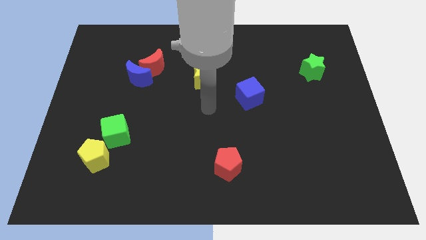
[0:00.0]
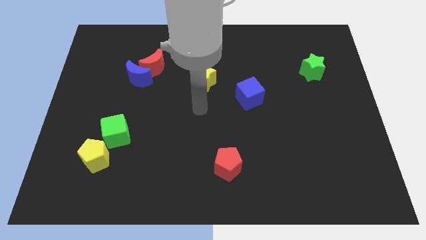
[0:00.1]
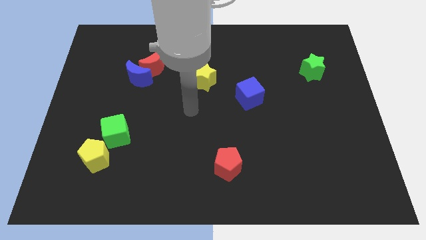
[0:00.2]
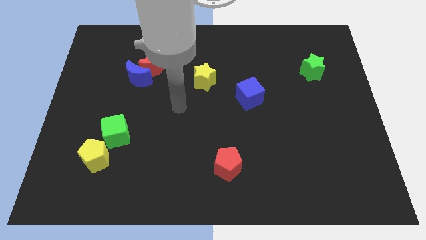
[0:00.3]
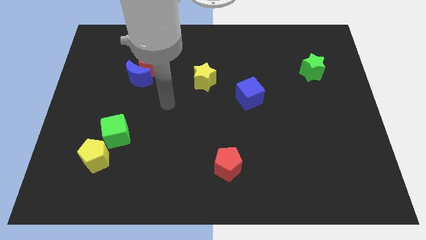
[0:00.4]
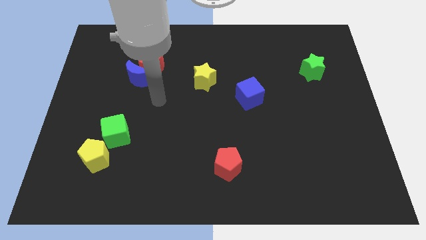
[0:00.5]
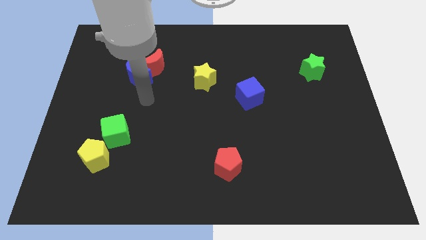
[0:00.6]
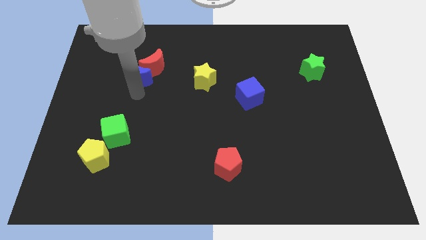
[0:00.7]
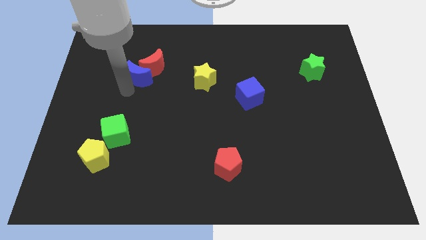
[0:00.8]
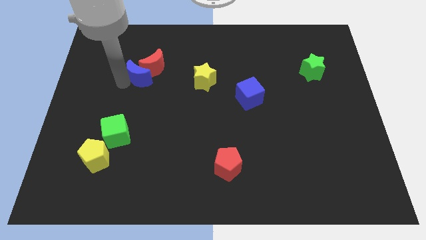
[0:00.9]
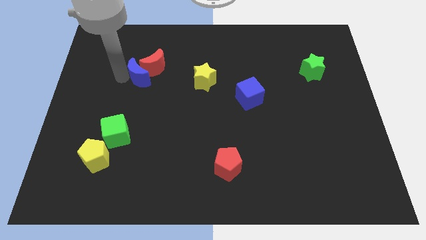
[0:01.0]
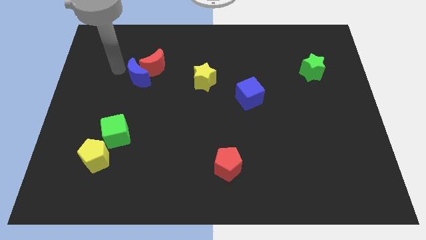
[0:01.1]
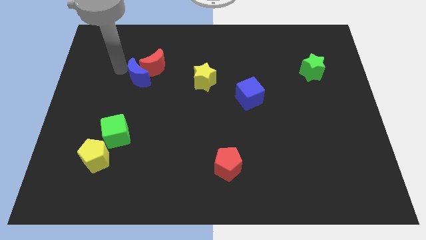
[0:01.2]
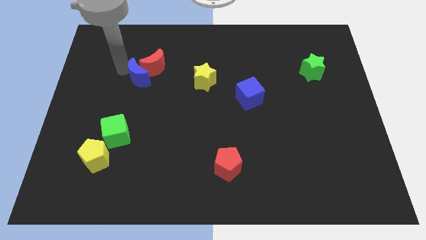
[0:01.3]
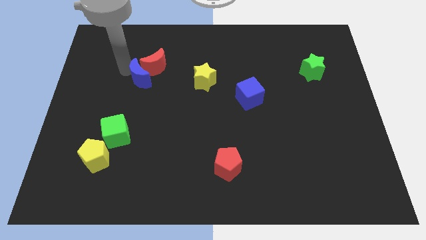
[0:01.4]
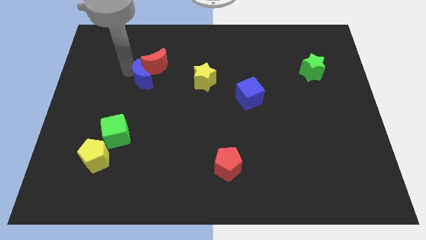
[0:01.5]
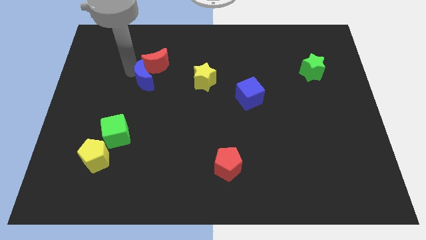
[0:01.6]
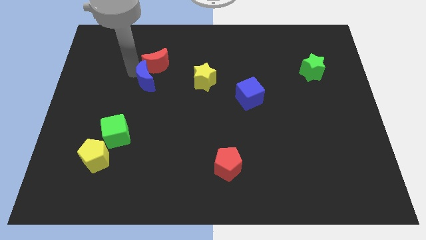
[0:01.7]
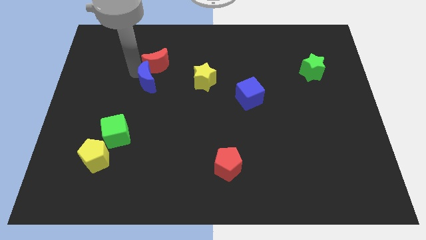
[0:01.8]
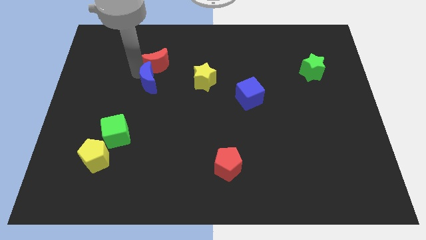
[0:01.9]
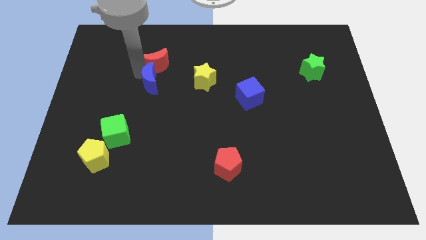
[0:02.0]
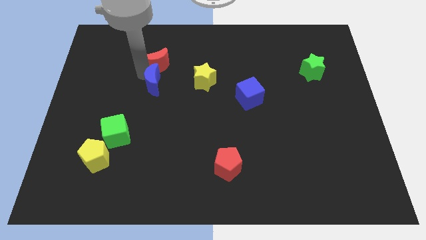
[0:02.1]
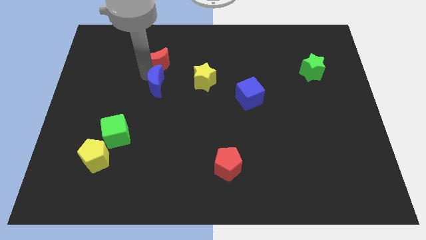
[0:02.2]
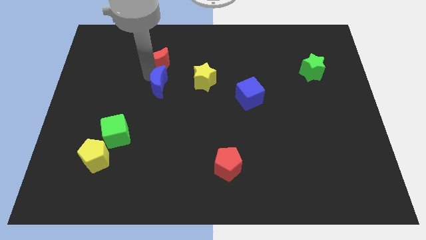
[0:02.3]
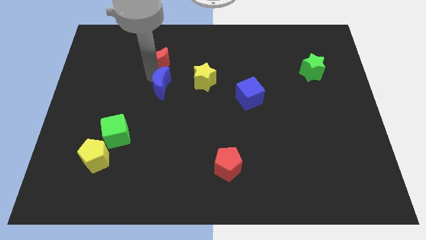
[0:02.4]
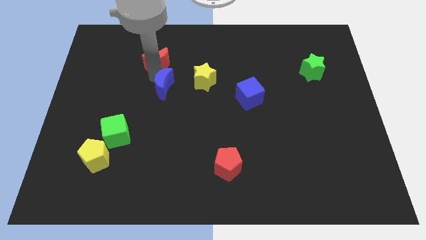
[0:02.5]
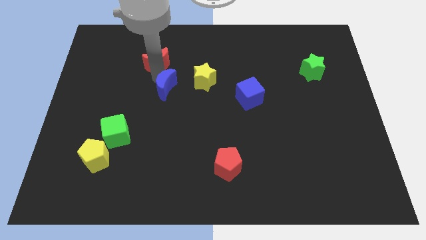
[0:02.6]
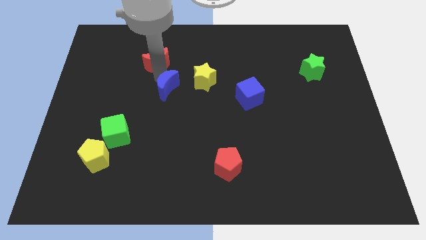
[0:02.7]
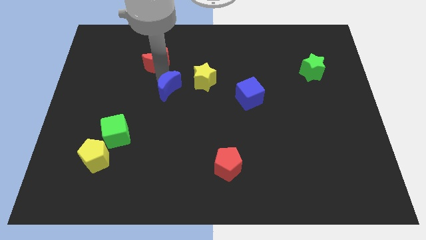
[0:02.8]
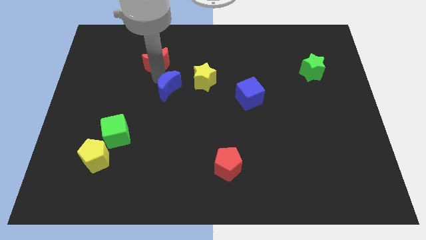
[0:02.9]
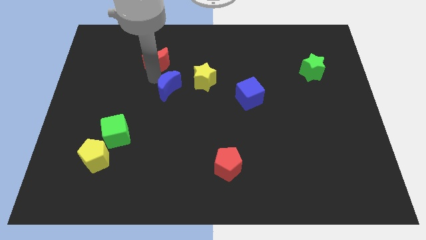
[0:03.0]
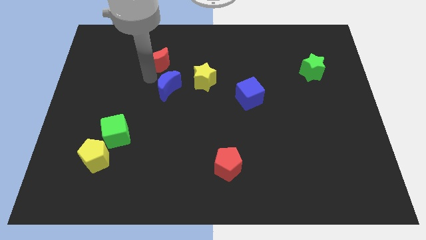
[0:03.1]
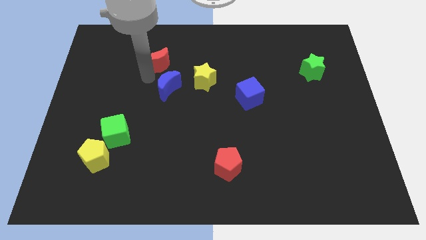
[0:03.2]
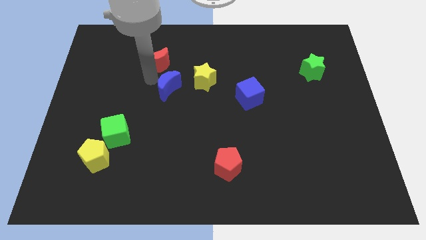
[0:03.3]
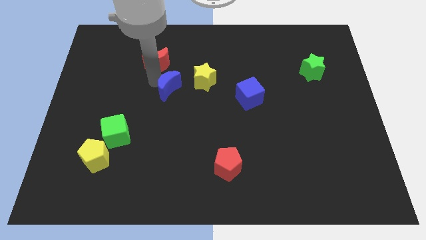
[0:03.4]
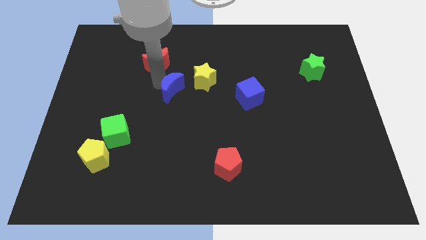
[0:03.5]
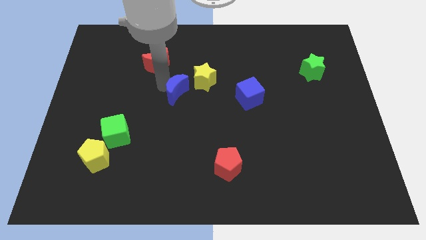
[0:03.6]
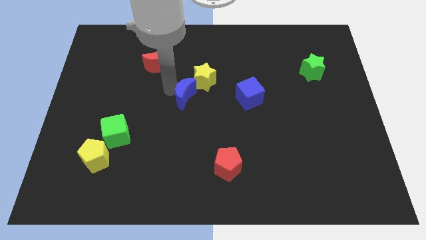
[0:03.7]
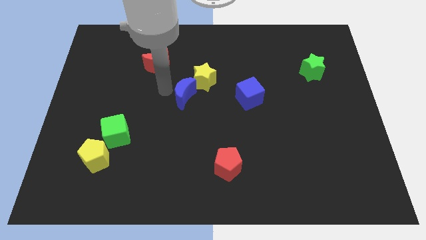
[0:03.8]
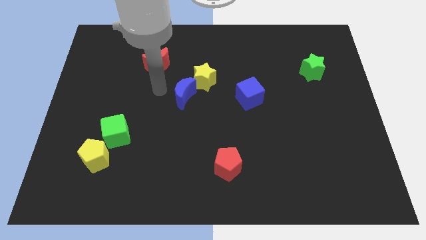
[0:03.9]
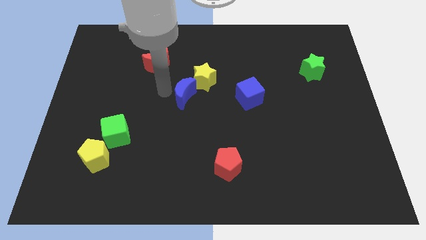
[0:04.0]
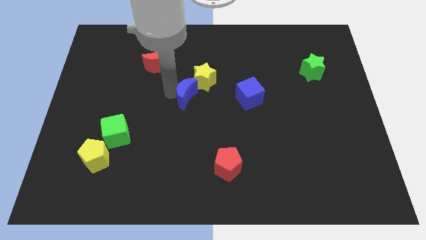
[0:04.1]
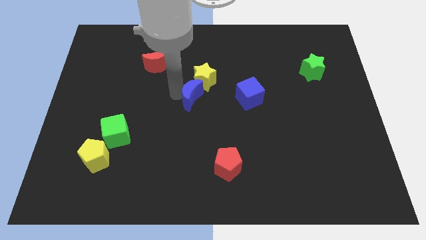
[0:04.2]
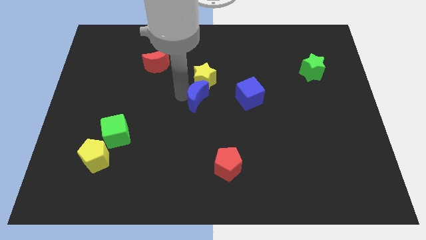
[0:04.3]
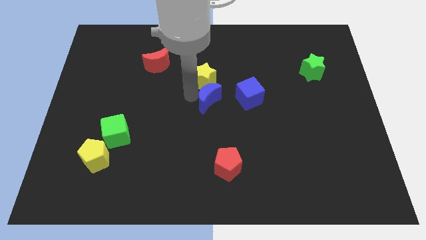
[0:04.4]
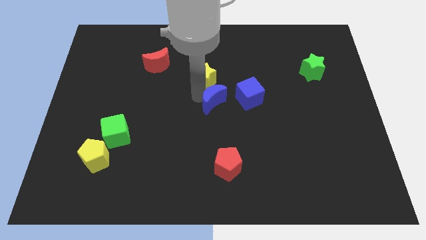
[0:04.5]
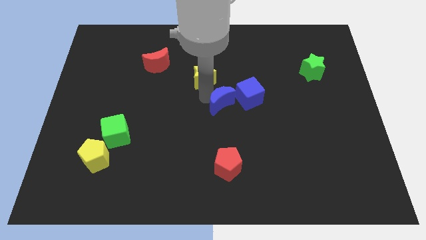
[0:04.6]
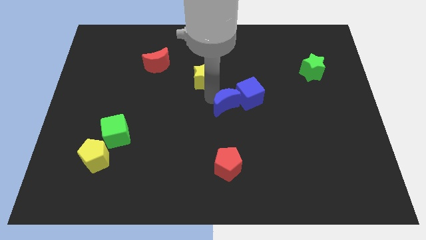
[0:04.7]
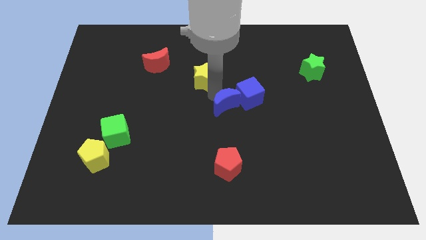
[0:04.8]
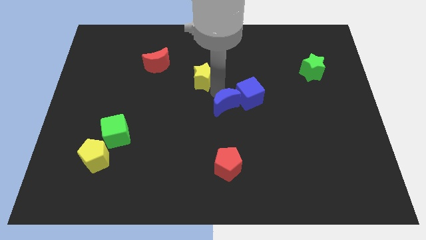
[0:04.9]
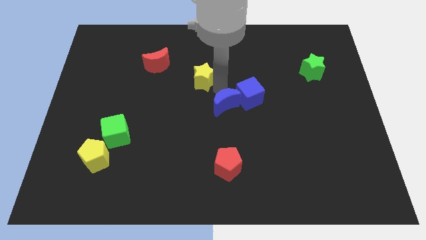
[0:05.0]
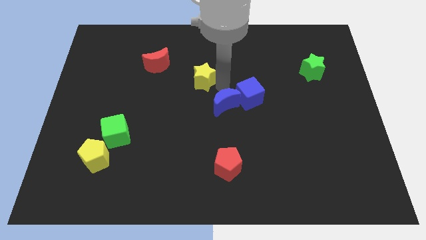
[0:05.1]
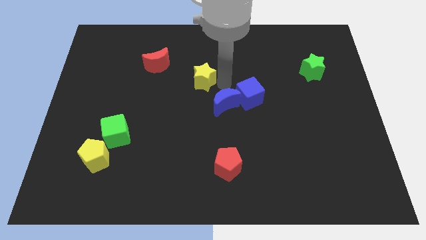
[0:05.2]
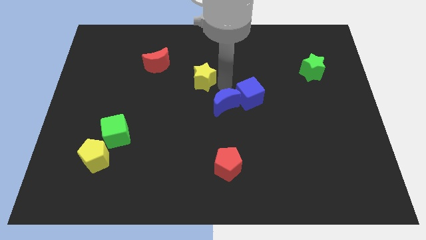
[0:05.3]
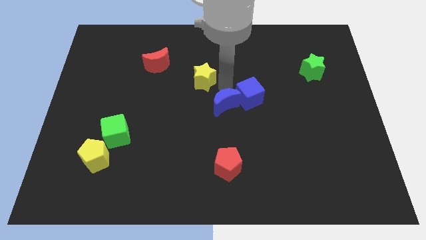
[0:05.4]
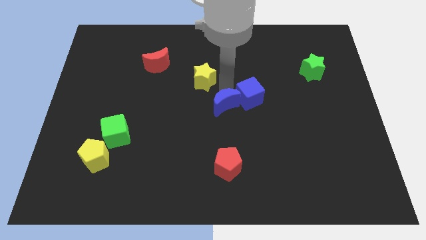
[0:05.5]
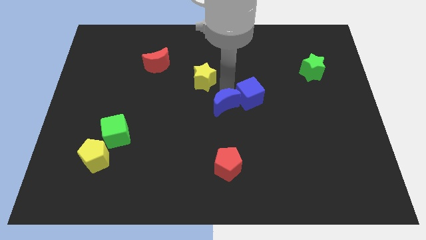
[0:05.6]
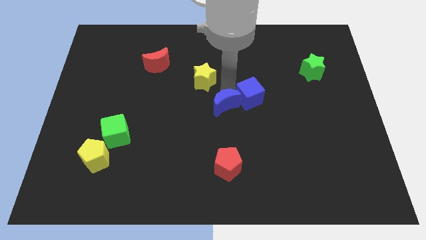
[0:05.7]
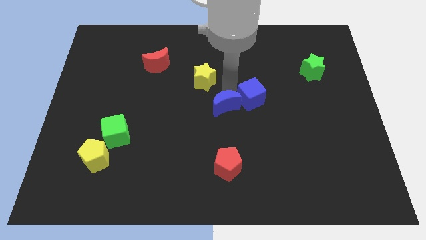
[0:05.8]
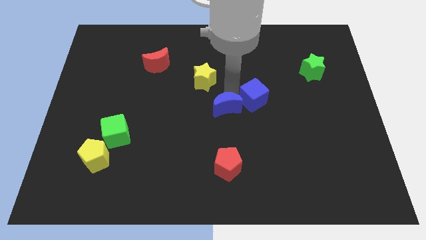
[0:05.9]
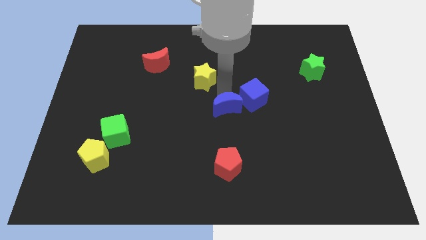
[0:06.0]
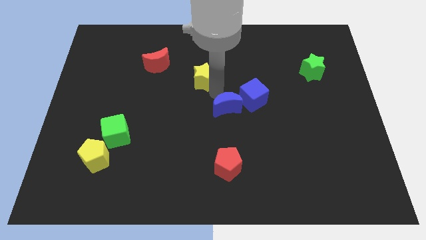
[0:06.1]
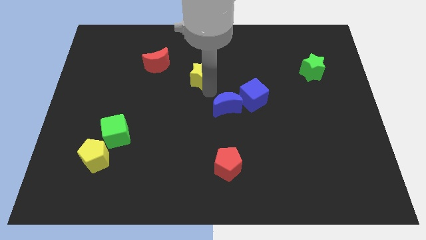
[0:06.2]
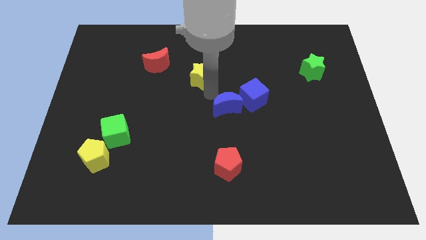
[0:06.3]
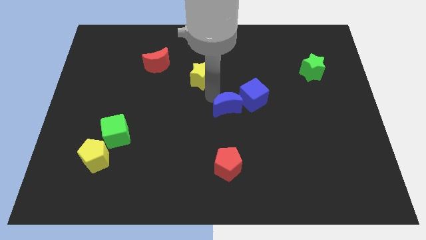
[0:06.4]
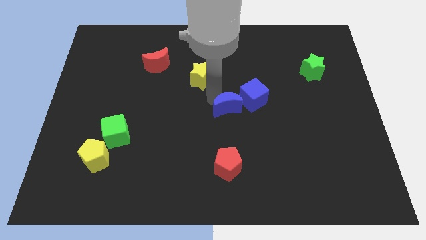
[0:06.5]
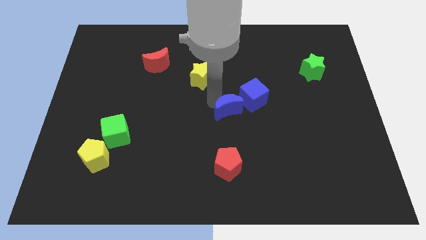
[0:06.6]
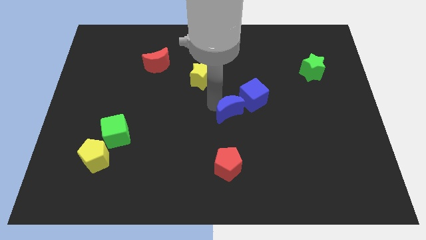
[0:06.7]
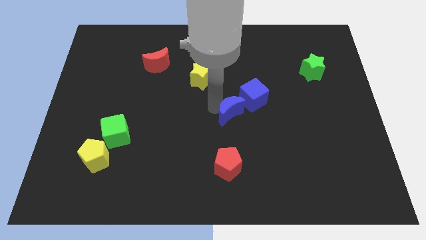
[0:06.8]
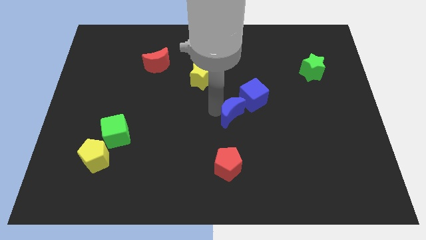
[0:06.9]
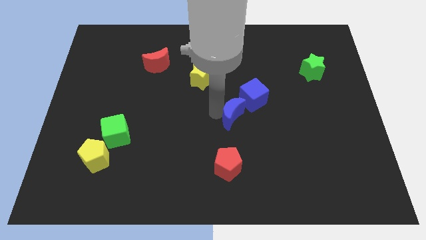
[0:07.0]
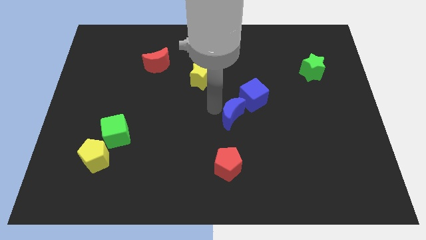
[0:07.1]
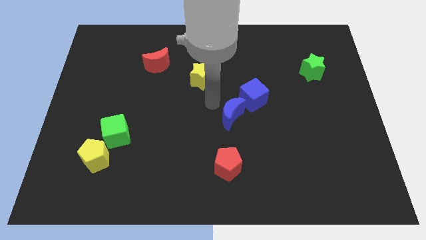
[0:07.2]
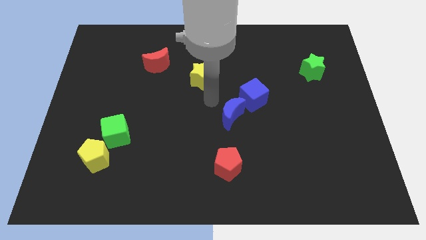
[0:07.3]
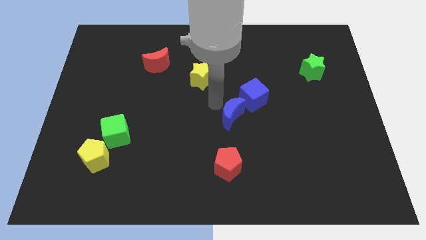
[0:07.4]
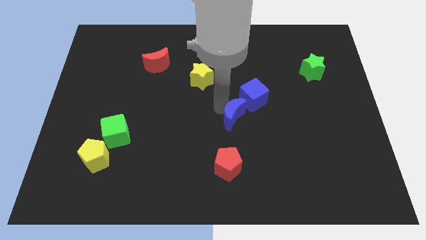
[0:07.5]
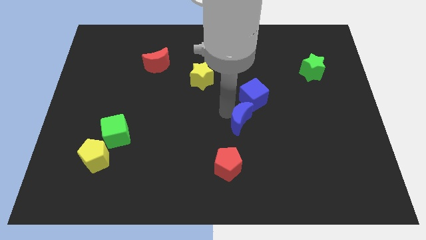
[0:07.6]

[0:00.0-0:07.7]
slide the blue moon to the bottom of the blue cube
